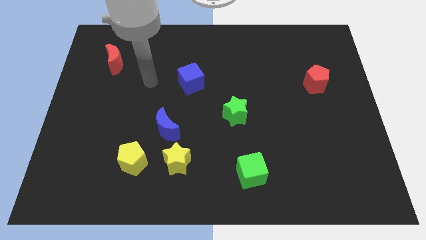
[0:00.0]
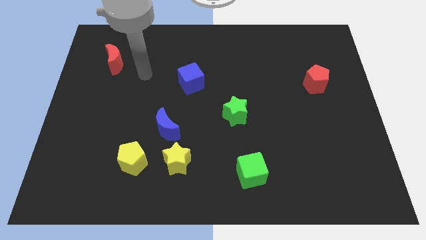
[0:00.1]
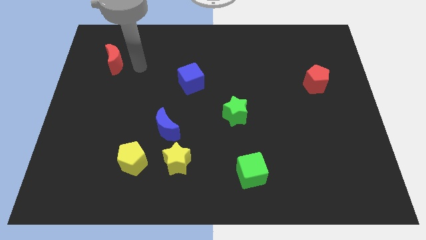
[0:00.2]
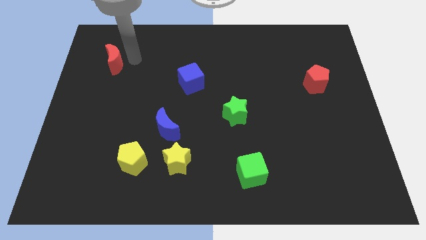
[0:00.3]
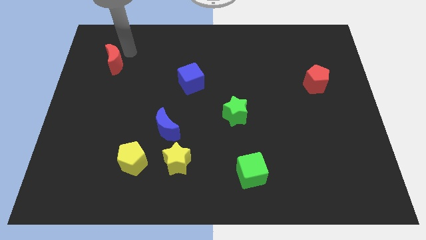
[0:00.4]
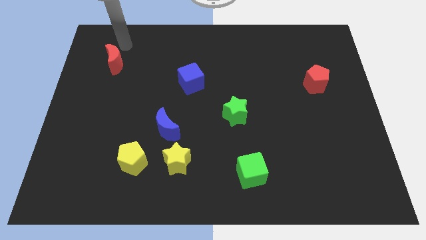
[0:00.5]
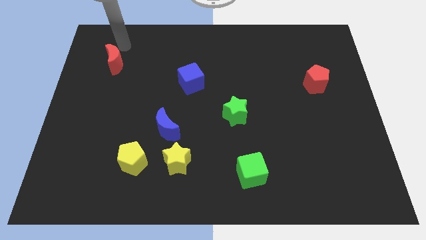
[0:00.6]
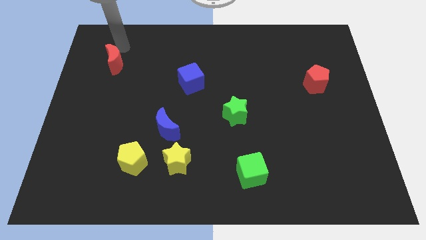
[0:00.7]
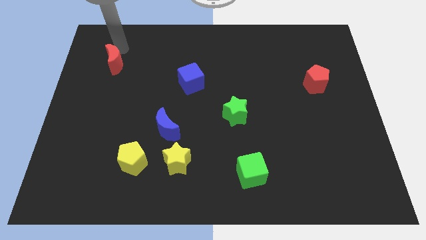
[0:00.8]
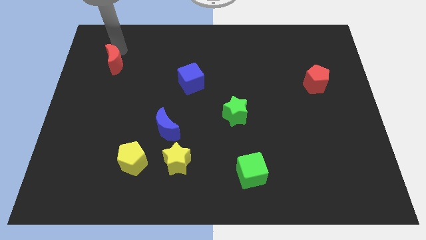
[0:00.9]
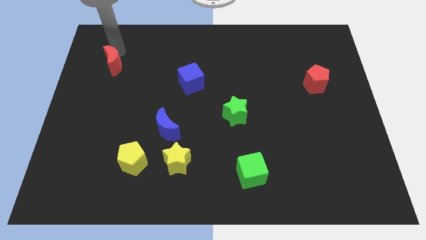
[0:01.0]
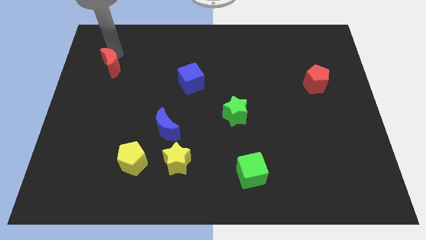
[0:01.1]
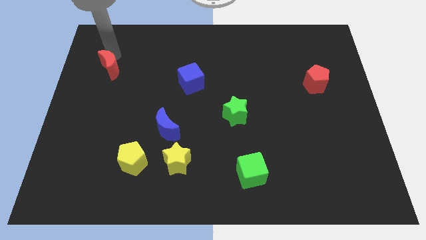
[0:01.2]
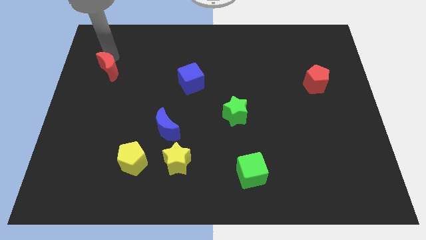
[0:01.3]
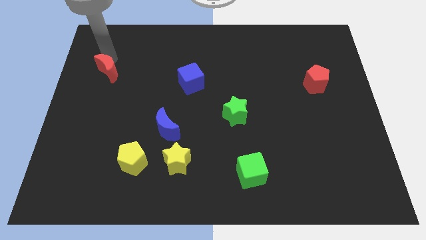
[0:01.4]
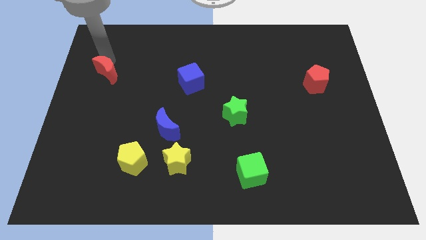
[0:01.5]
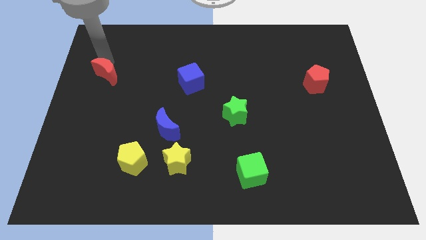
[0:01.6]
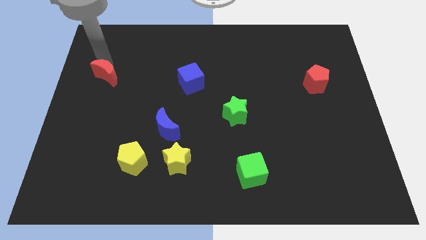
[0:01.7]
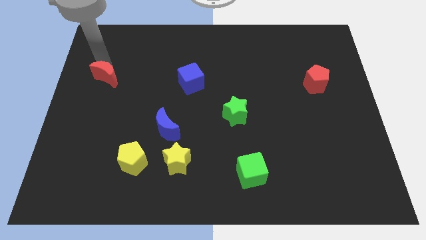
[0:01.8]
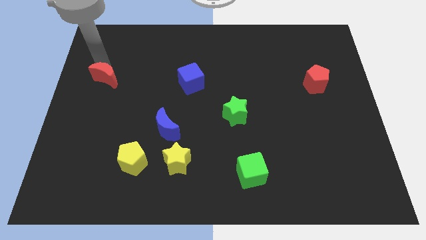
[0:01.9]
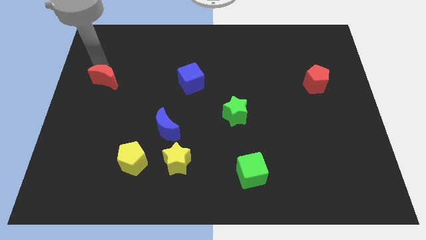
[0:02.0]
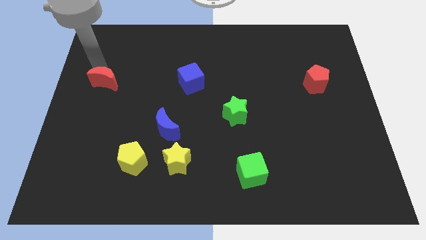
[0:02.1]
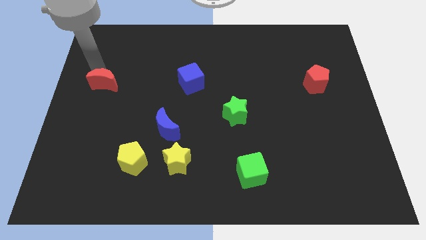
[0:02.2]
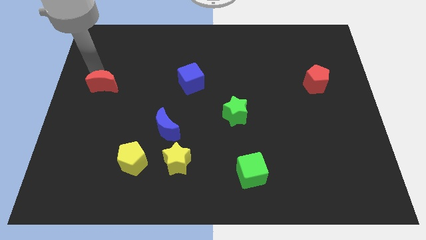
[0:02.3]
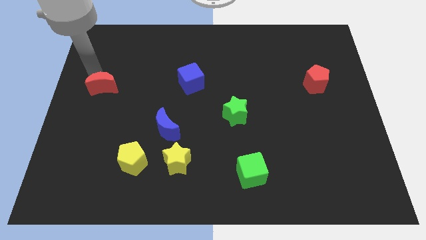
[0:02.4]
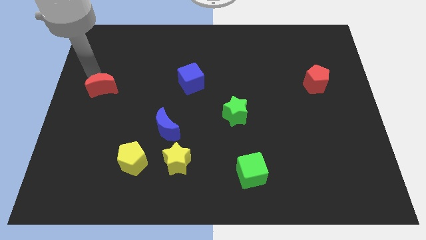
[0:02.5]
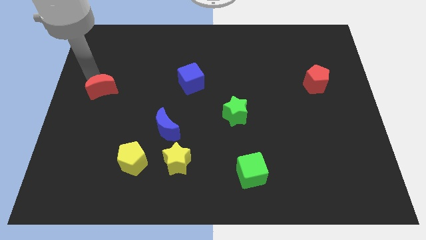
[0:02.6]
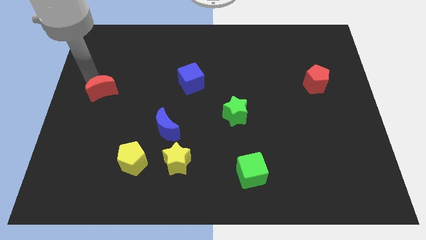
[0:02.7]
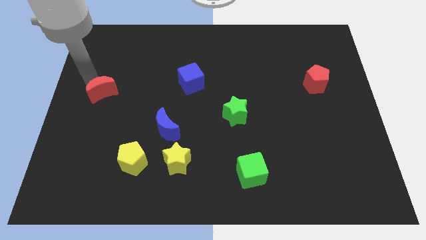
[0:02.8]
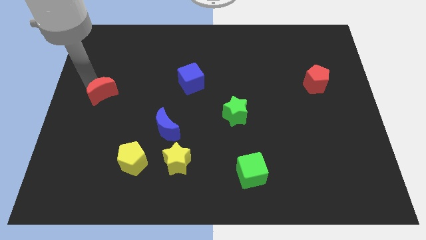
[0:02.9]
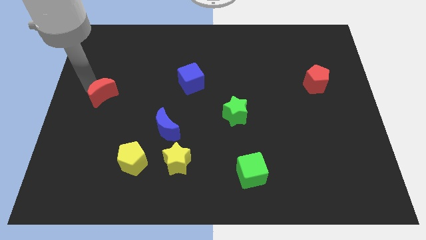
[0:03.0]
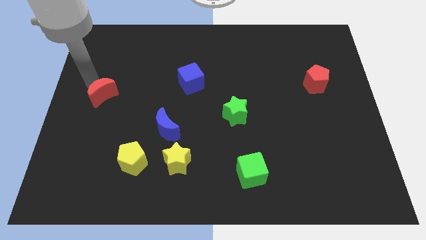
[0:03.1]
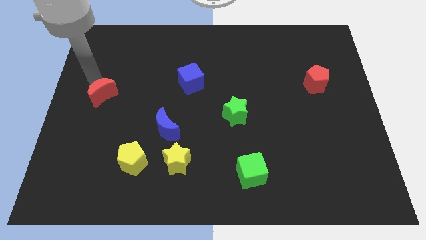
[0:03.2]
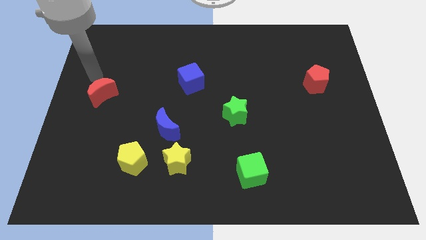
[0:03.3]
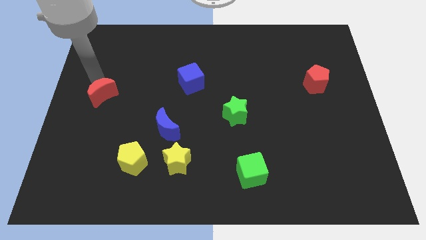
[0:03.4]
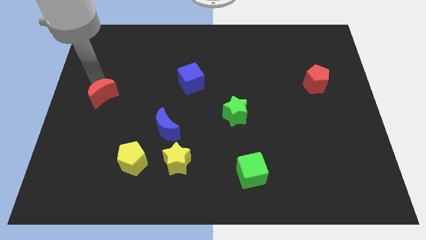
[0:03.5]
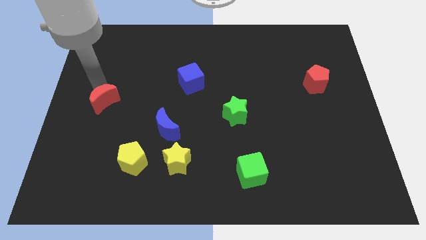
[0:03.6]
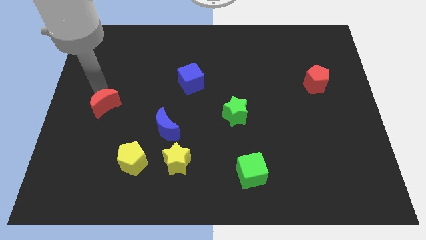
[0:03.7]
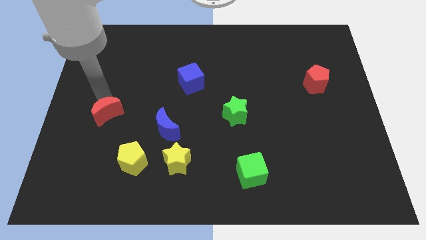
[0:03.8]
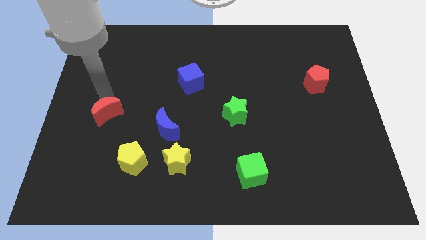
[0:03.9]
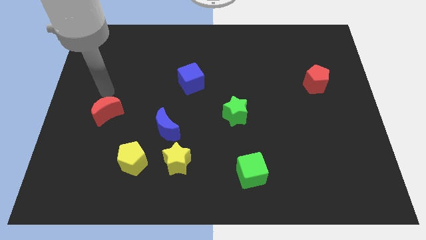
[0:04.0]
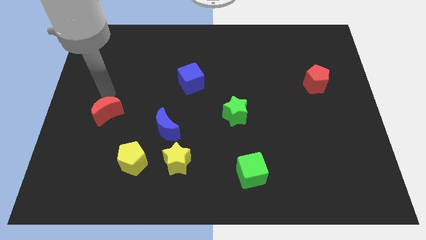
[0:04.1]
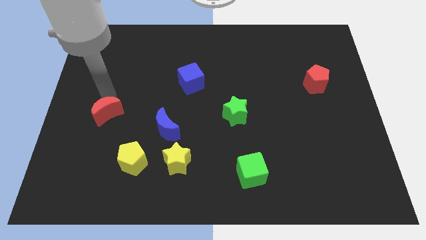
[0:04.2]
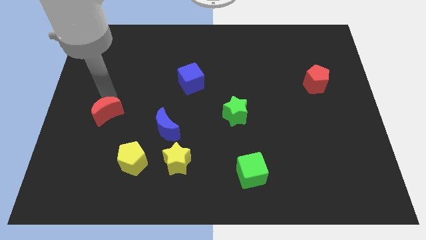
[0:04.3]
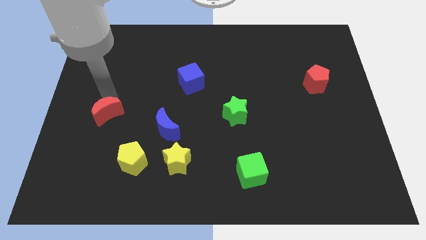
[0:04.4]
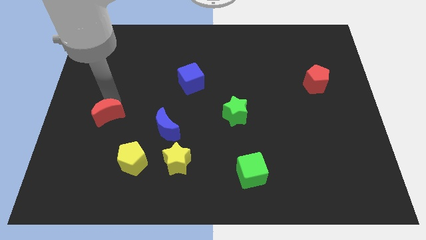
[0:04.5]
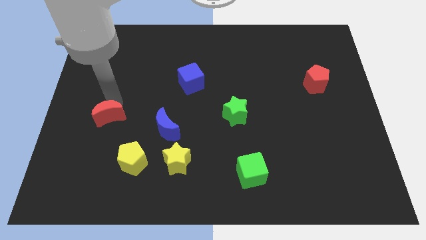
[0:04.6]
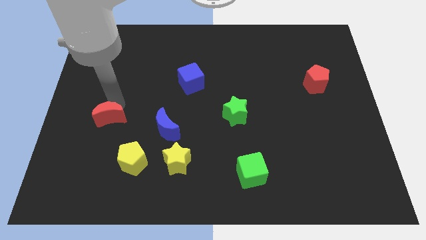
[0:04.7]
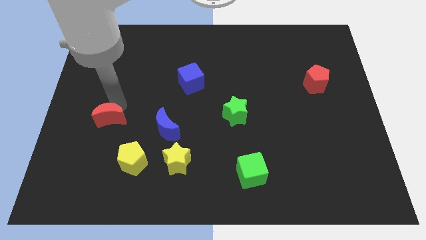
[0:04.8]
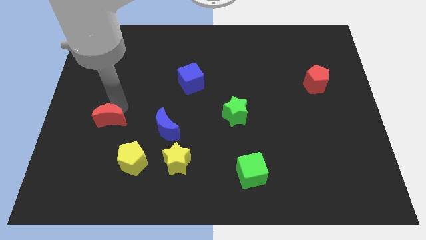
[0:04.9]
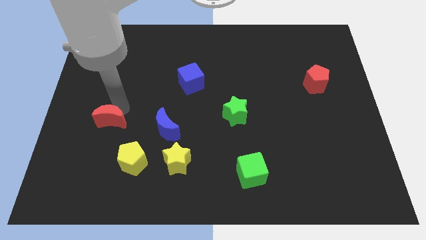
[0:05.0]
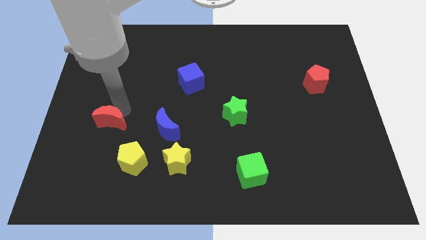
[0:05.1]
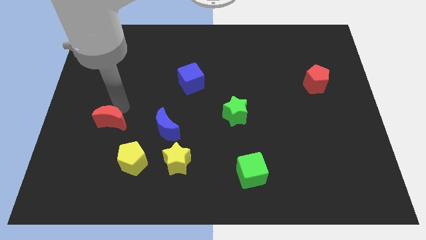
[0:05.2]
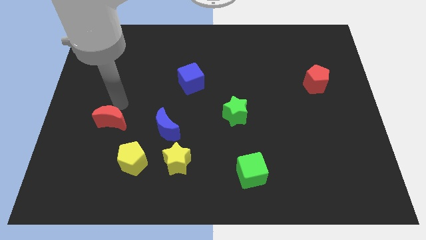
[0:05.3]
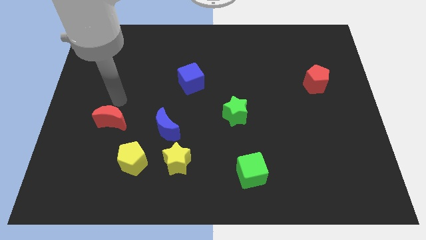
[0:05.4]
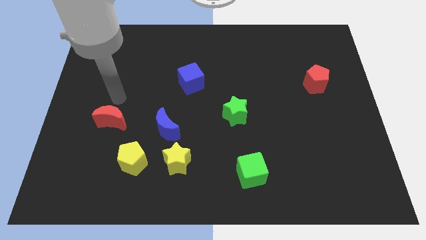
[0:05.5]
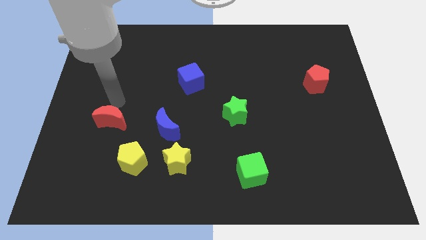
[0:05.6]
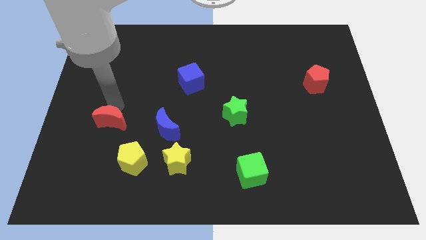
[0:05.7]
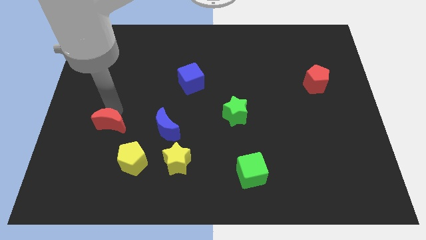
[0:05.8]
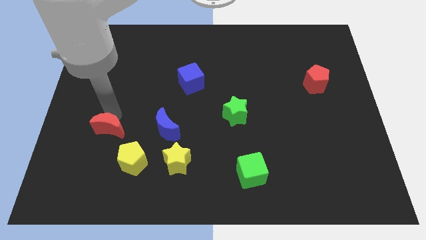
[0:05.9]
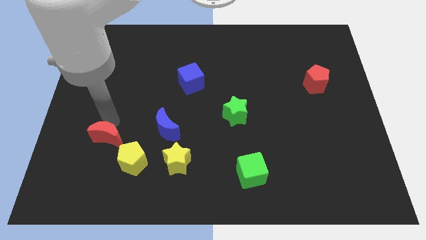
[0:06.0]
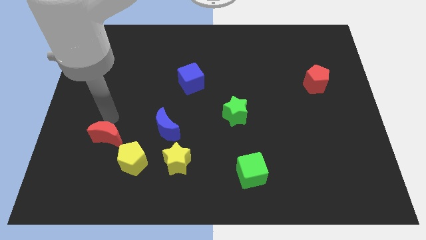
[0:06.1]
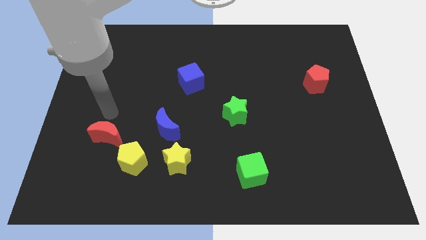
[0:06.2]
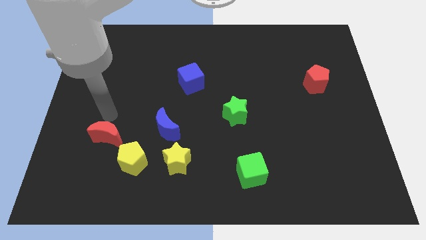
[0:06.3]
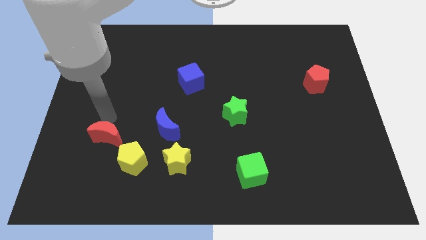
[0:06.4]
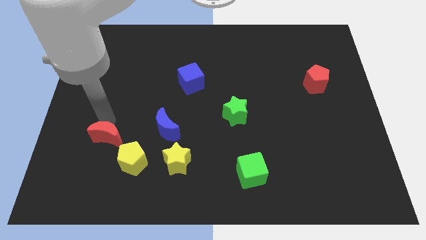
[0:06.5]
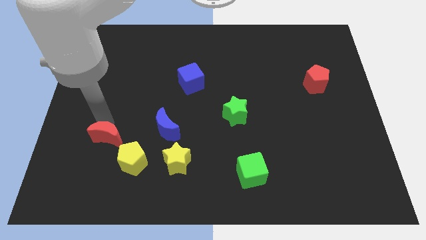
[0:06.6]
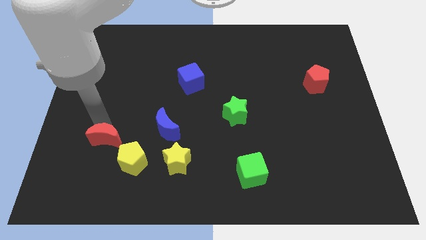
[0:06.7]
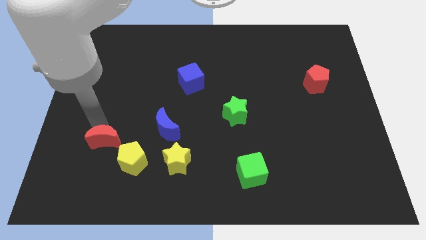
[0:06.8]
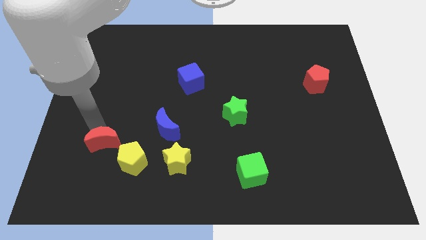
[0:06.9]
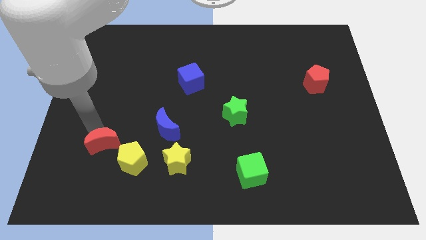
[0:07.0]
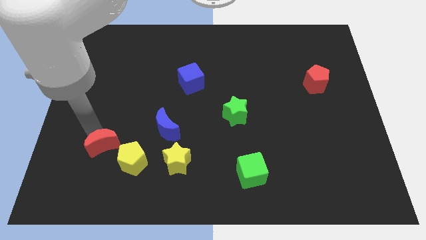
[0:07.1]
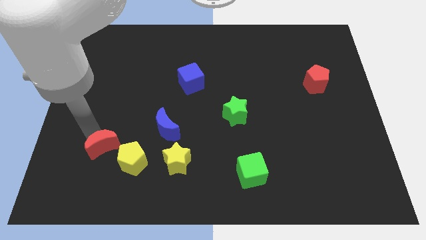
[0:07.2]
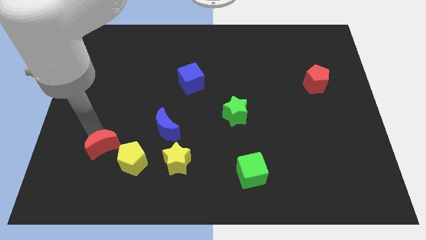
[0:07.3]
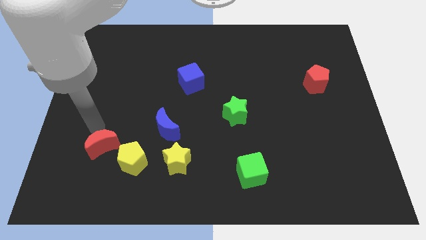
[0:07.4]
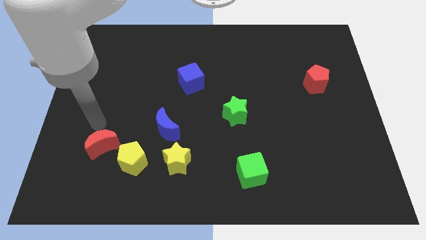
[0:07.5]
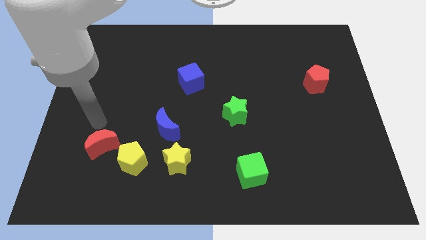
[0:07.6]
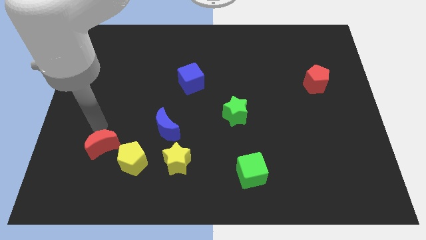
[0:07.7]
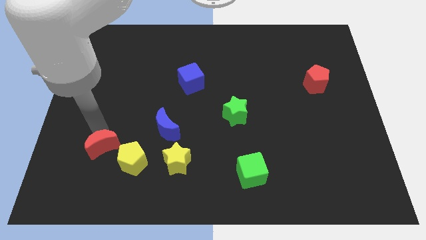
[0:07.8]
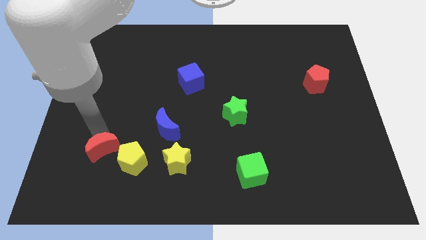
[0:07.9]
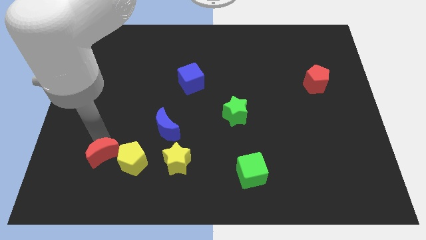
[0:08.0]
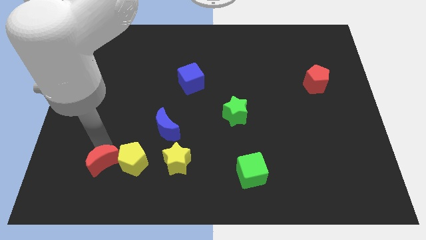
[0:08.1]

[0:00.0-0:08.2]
put the red moon diagonally down and to the left of the yellow pentagon
